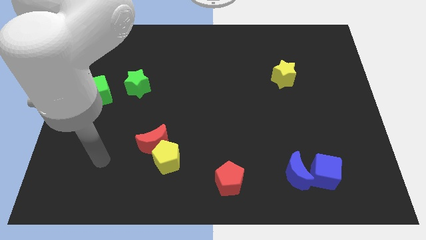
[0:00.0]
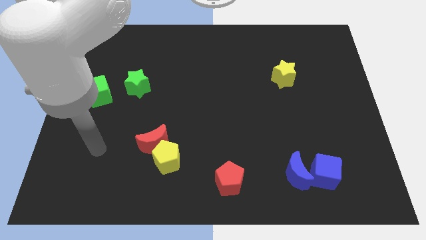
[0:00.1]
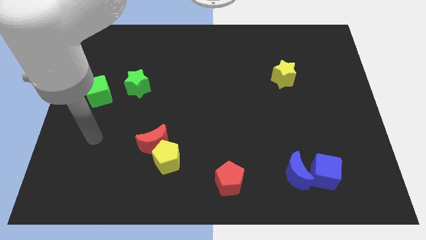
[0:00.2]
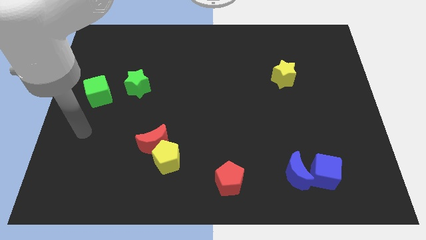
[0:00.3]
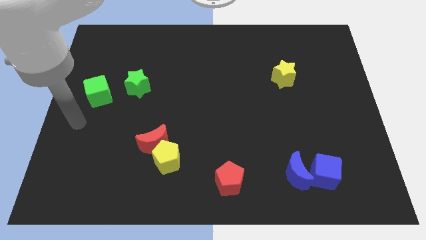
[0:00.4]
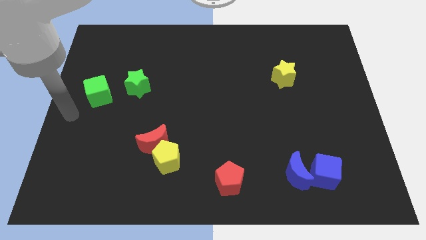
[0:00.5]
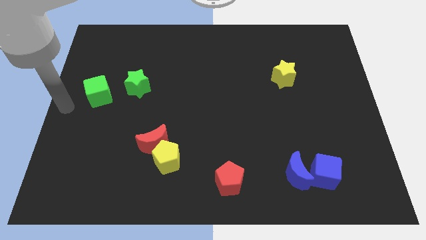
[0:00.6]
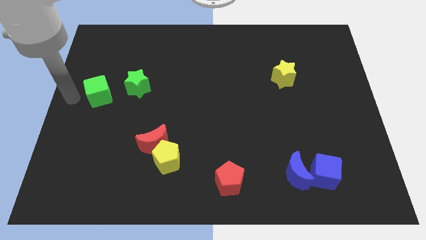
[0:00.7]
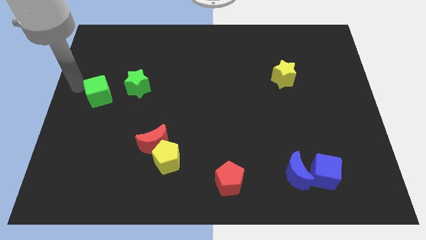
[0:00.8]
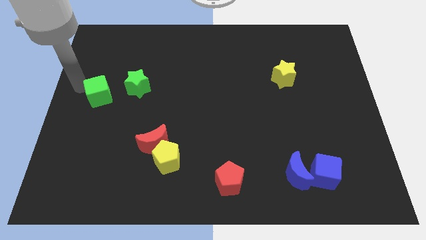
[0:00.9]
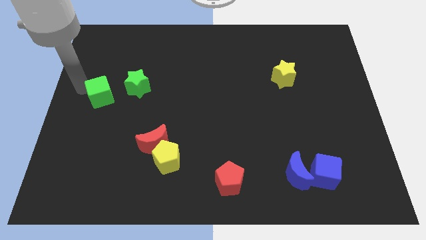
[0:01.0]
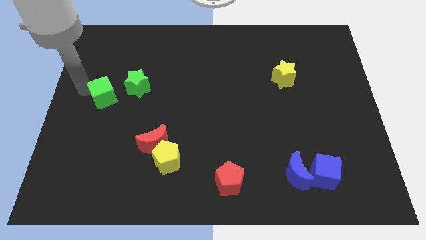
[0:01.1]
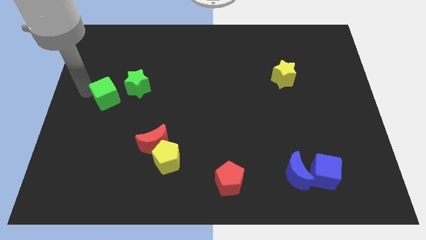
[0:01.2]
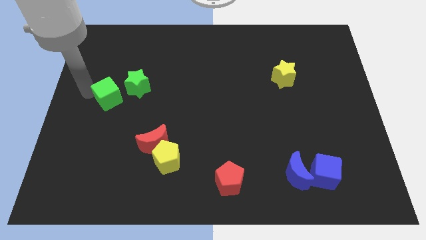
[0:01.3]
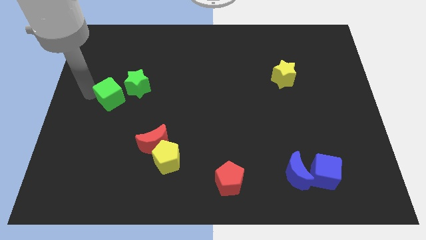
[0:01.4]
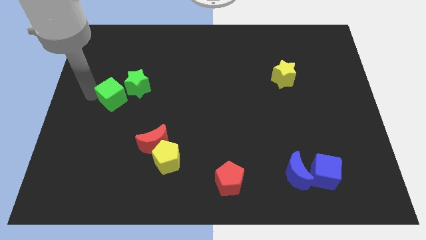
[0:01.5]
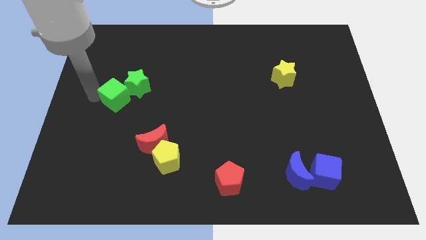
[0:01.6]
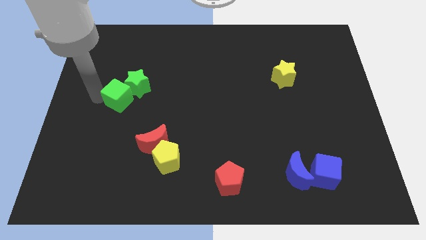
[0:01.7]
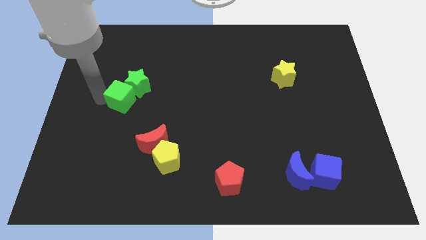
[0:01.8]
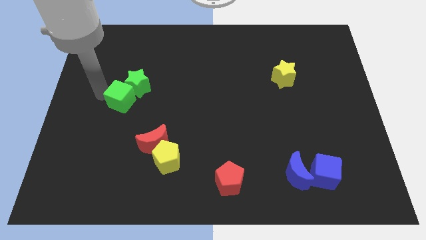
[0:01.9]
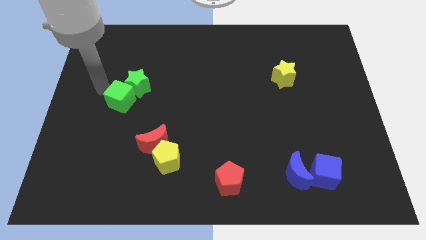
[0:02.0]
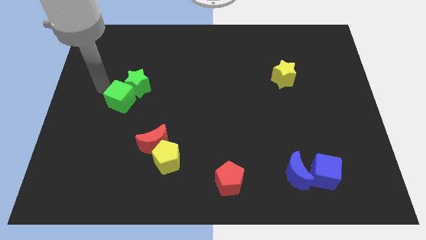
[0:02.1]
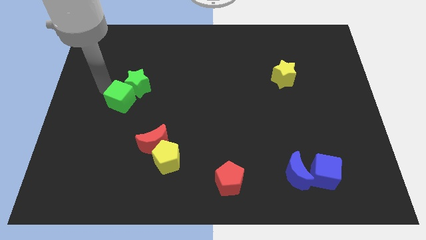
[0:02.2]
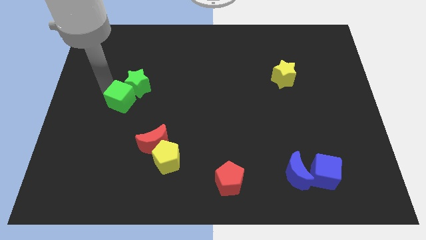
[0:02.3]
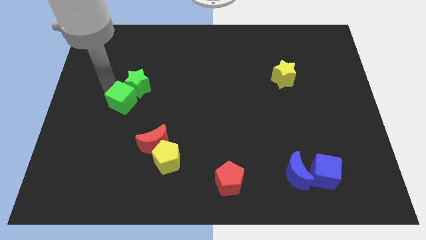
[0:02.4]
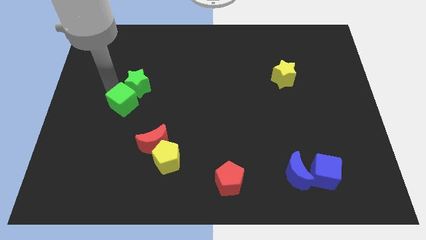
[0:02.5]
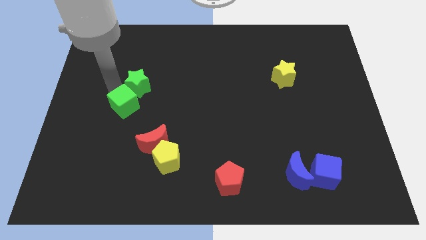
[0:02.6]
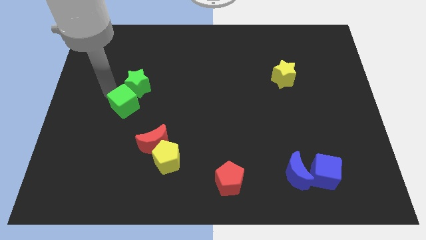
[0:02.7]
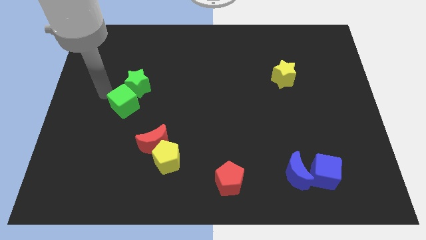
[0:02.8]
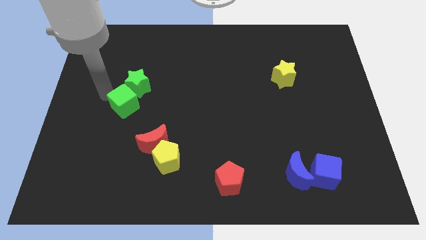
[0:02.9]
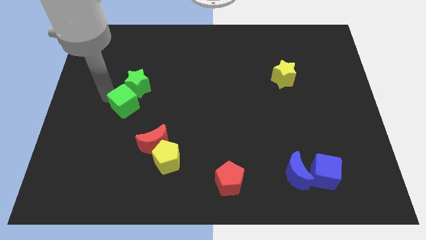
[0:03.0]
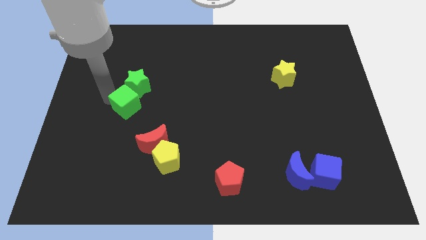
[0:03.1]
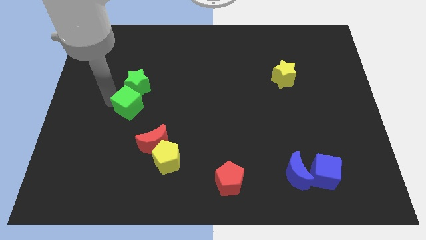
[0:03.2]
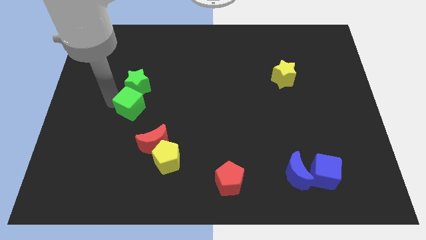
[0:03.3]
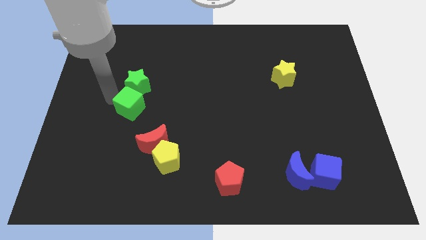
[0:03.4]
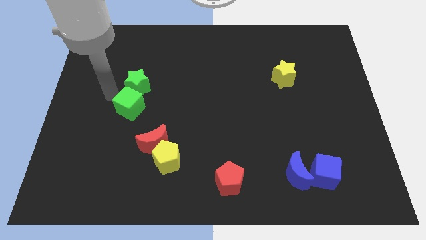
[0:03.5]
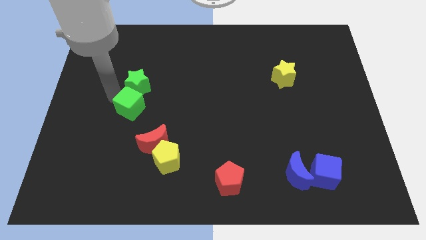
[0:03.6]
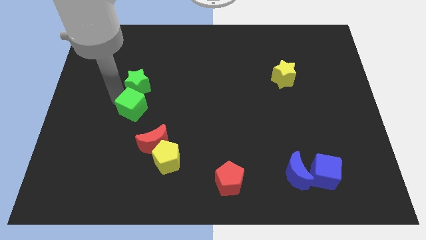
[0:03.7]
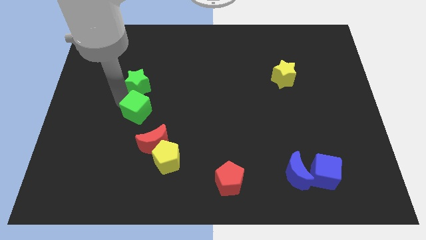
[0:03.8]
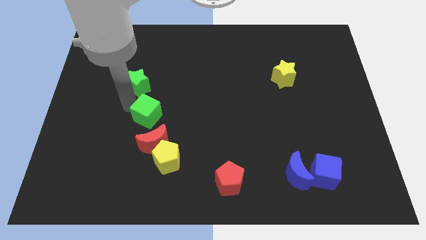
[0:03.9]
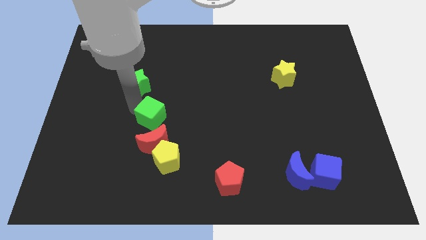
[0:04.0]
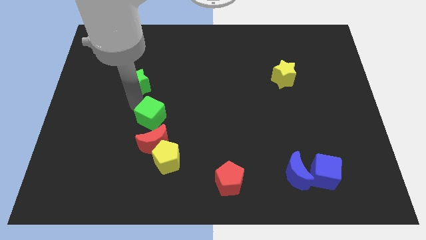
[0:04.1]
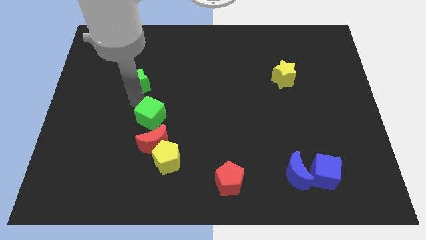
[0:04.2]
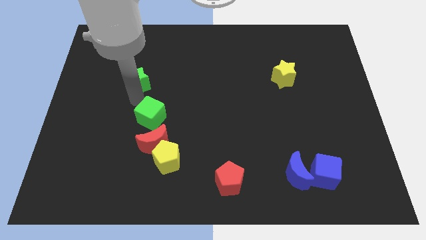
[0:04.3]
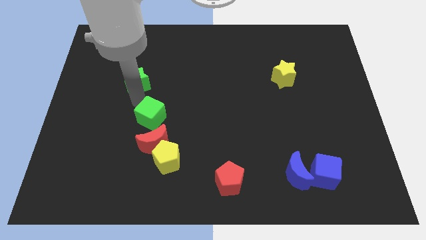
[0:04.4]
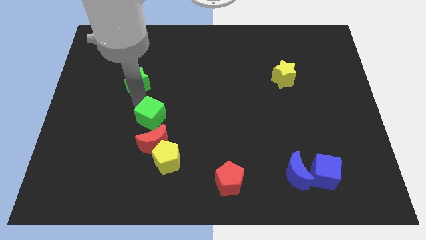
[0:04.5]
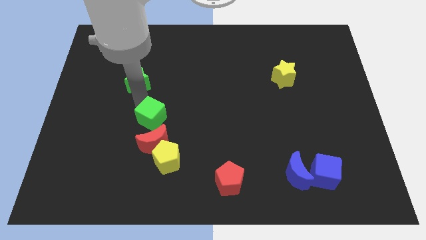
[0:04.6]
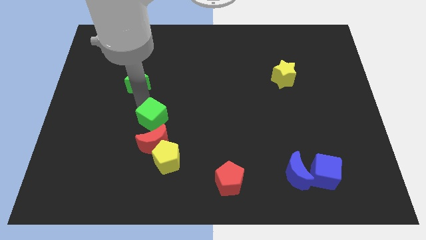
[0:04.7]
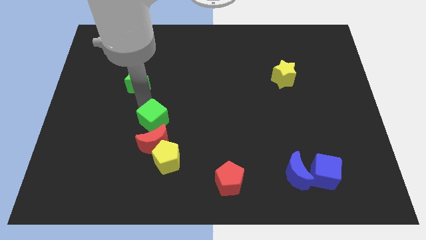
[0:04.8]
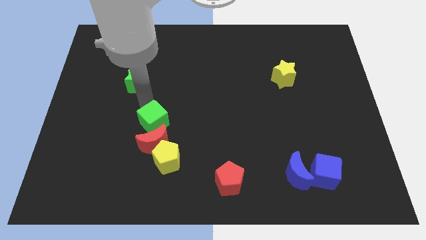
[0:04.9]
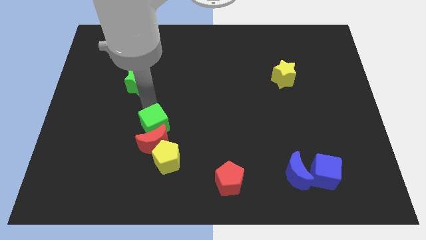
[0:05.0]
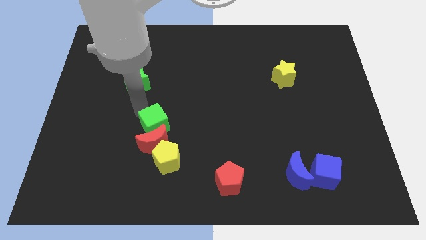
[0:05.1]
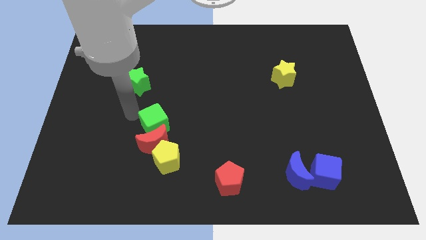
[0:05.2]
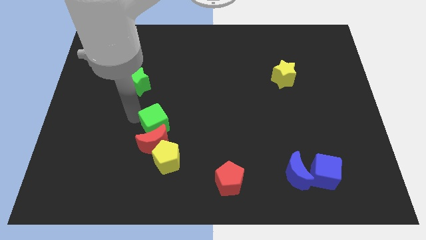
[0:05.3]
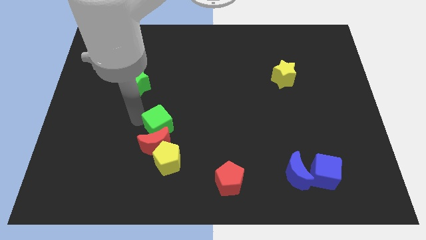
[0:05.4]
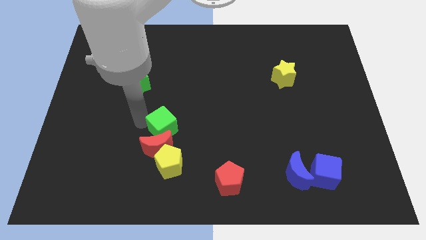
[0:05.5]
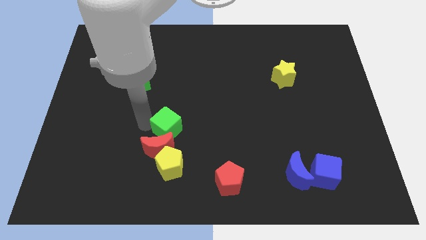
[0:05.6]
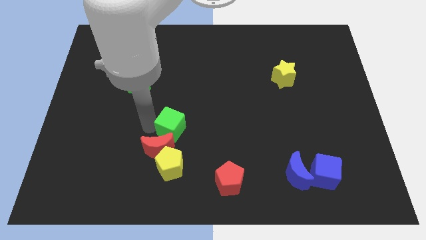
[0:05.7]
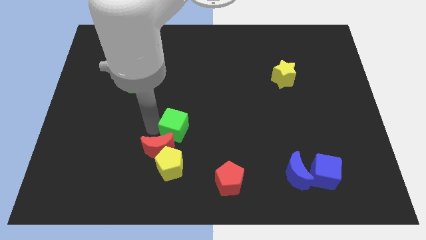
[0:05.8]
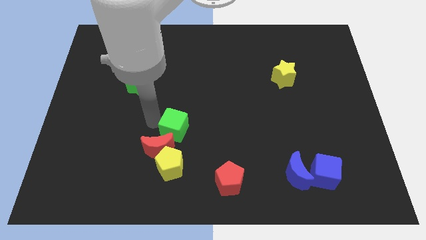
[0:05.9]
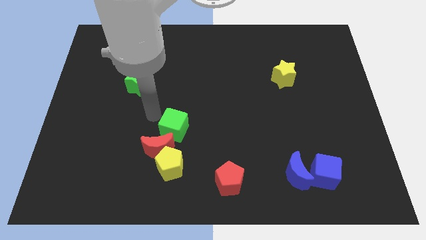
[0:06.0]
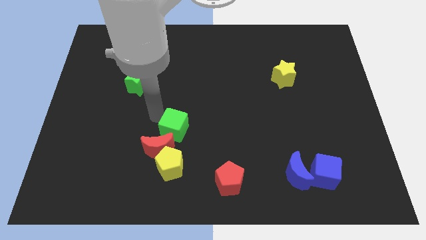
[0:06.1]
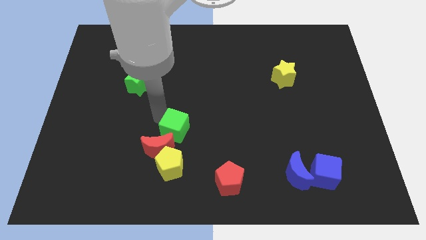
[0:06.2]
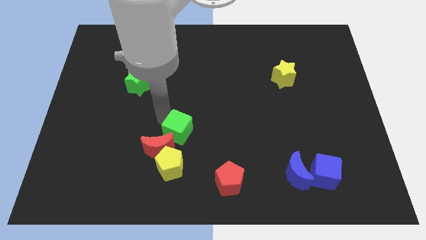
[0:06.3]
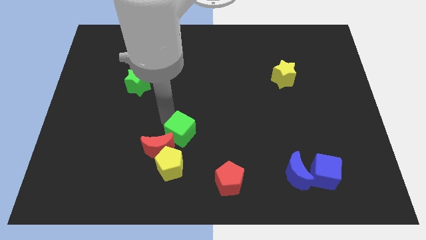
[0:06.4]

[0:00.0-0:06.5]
move the green cube to the right of the red moon

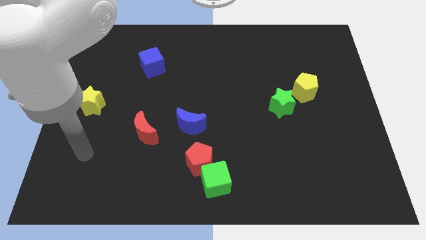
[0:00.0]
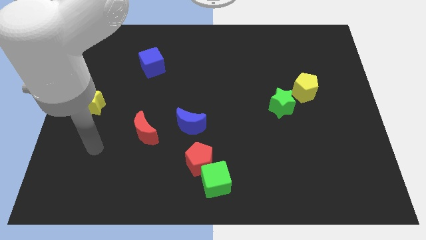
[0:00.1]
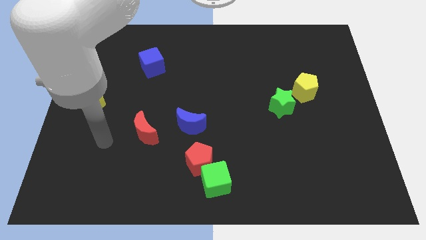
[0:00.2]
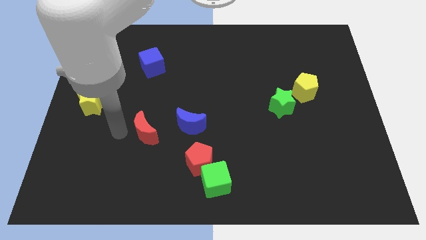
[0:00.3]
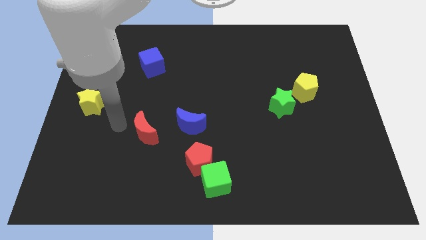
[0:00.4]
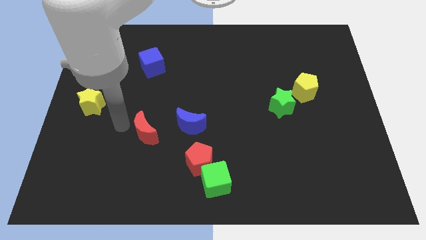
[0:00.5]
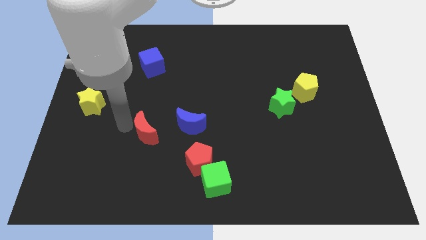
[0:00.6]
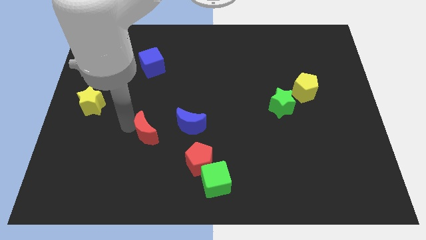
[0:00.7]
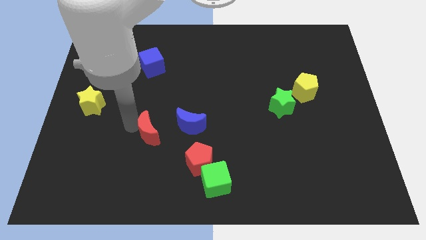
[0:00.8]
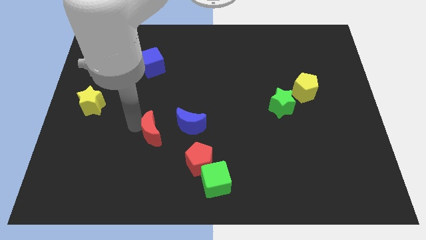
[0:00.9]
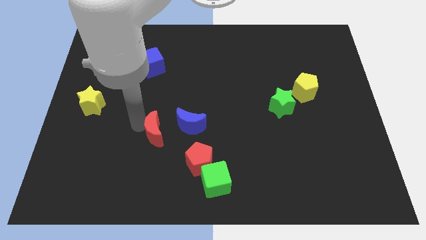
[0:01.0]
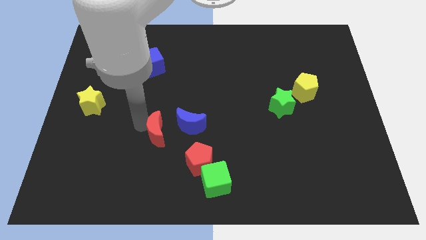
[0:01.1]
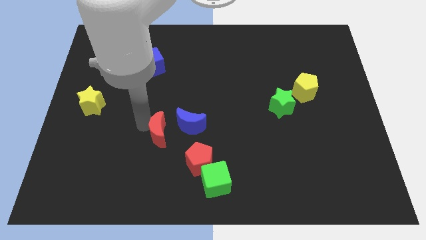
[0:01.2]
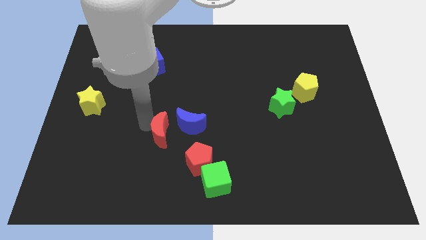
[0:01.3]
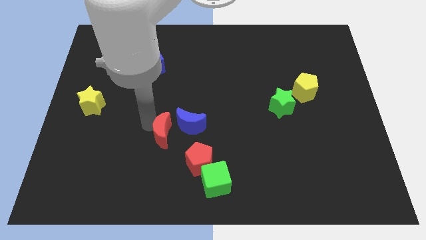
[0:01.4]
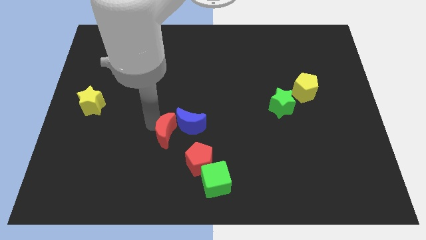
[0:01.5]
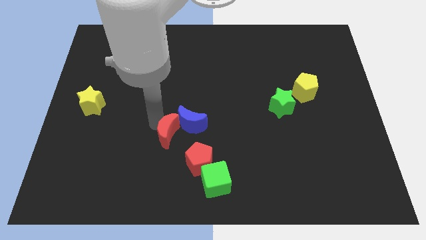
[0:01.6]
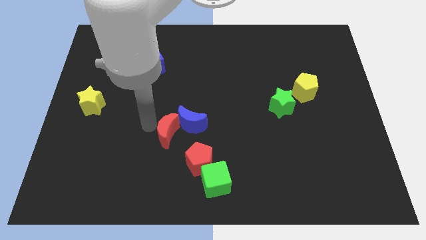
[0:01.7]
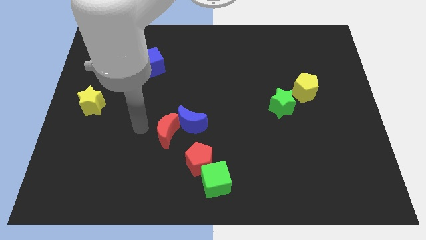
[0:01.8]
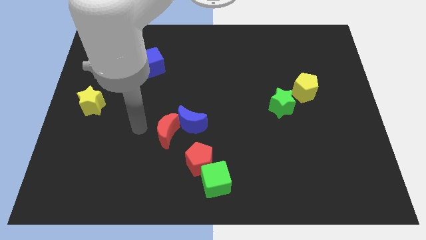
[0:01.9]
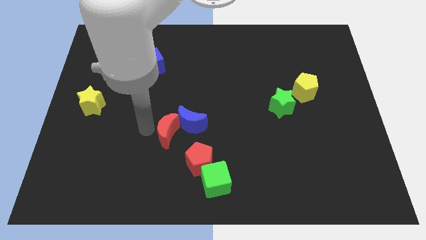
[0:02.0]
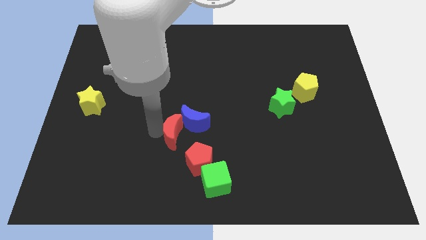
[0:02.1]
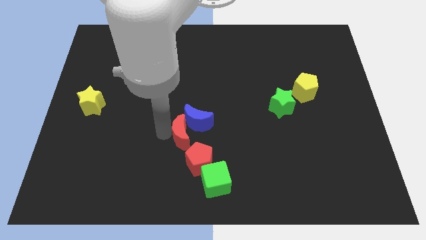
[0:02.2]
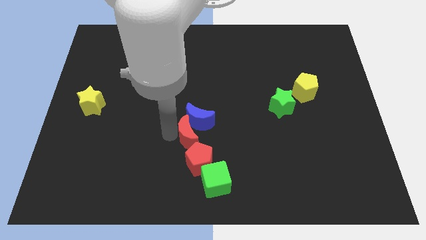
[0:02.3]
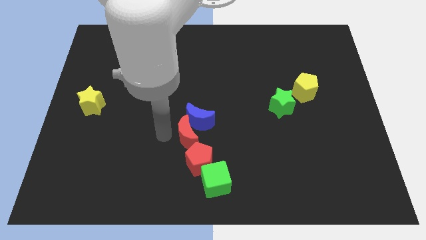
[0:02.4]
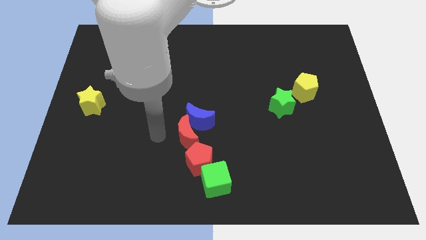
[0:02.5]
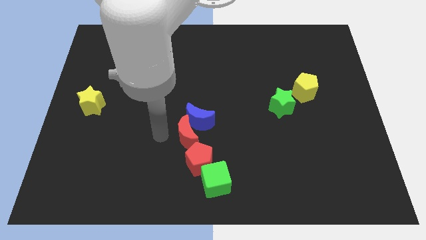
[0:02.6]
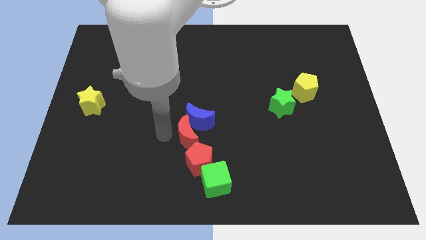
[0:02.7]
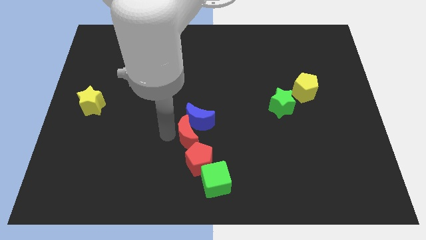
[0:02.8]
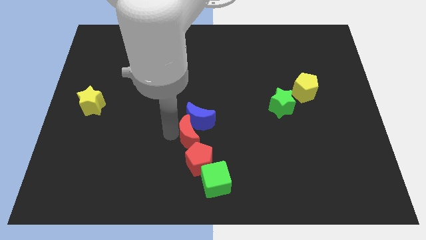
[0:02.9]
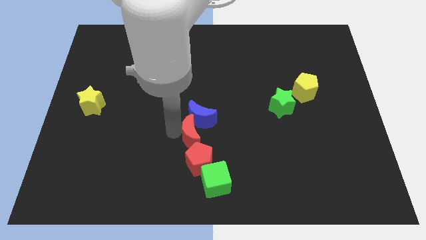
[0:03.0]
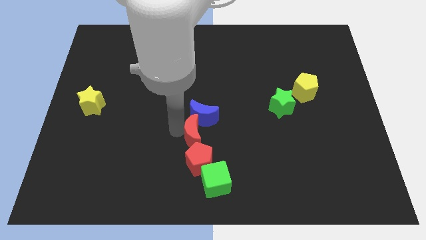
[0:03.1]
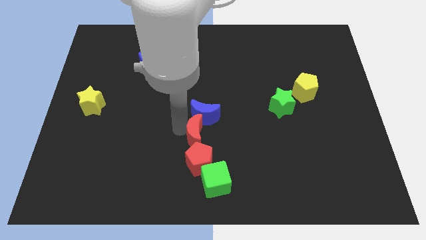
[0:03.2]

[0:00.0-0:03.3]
move the red moon to the top of the green cube
